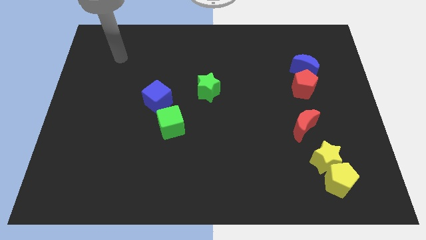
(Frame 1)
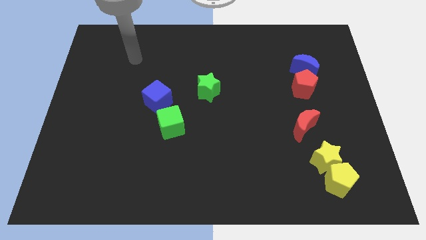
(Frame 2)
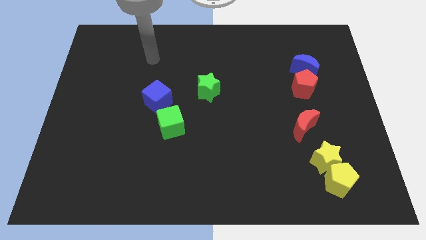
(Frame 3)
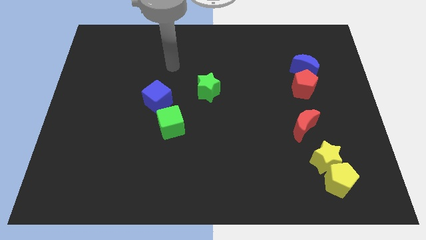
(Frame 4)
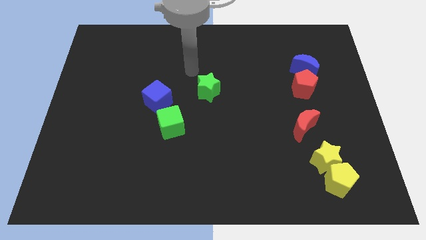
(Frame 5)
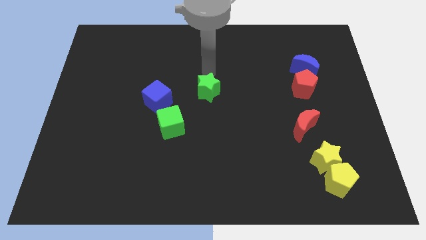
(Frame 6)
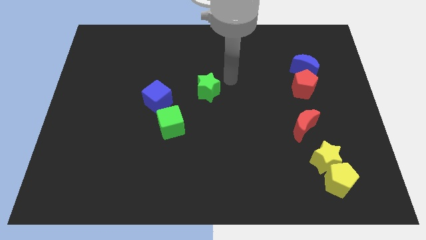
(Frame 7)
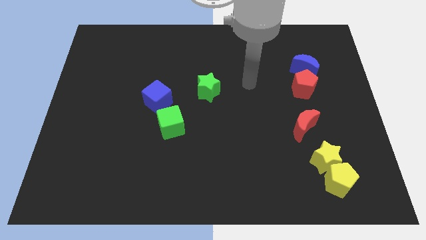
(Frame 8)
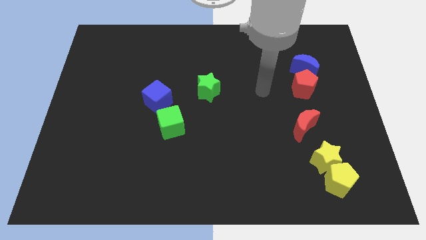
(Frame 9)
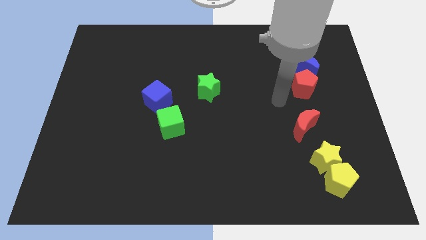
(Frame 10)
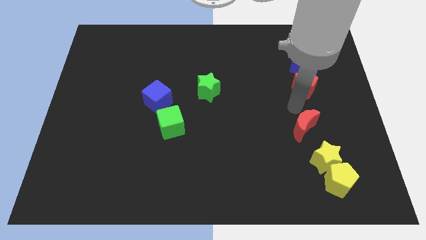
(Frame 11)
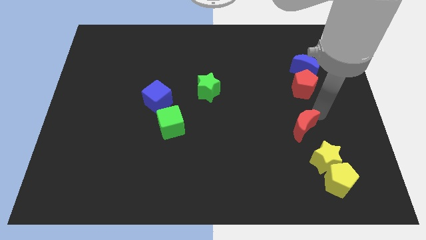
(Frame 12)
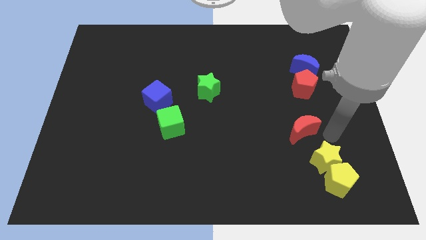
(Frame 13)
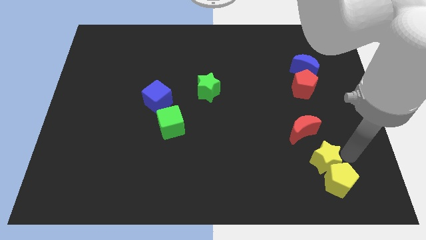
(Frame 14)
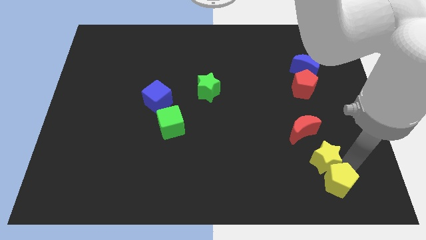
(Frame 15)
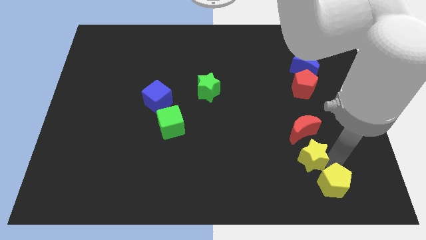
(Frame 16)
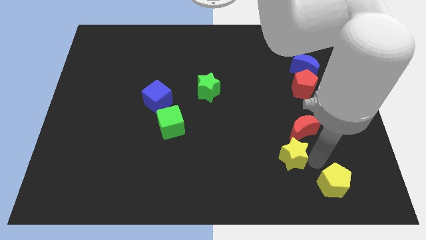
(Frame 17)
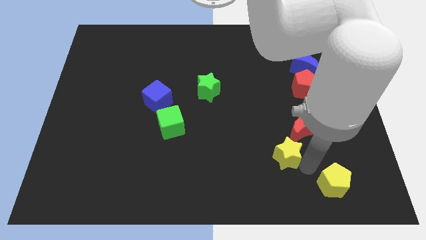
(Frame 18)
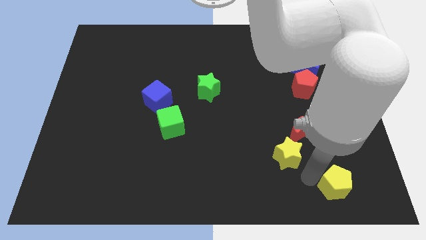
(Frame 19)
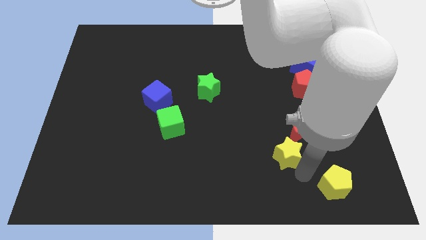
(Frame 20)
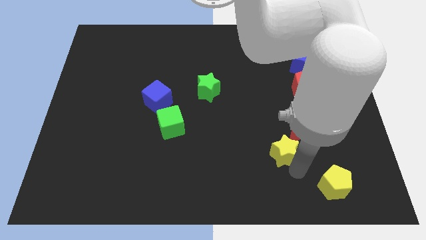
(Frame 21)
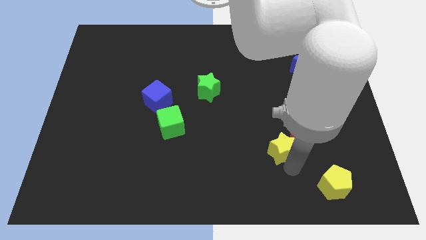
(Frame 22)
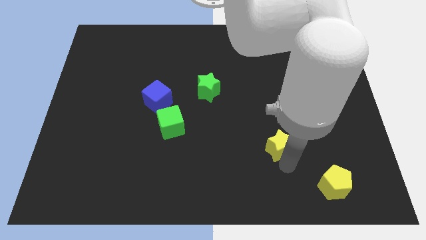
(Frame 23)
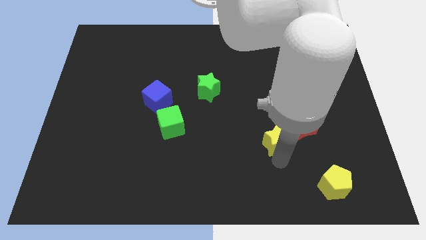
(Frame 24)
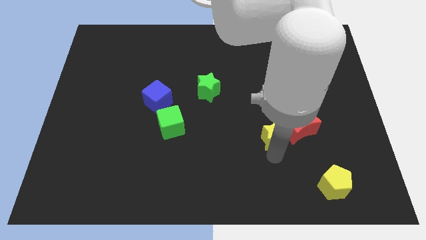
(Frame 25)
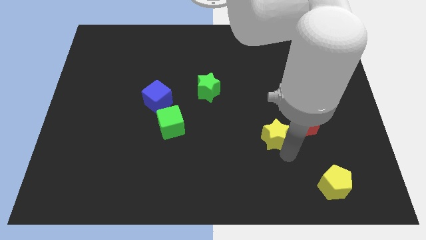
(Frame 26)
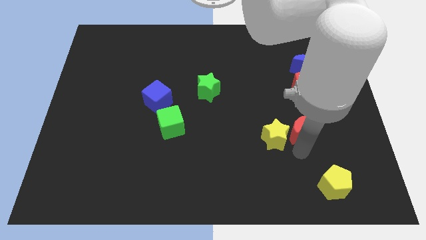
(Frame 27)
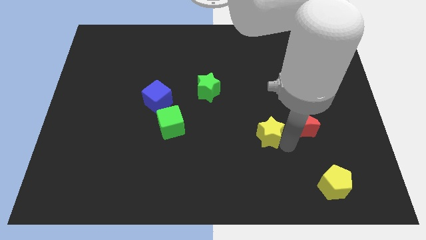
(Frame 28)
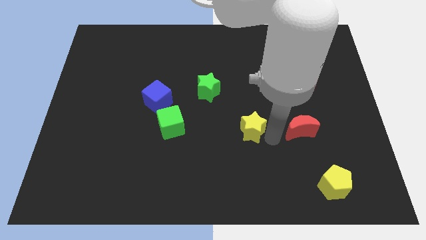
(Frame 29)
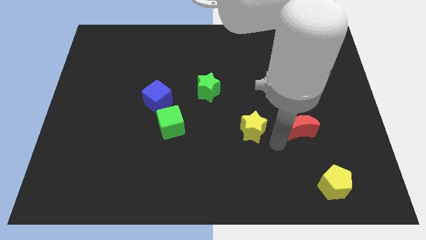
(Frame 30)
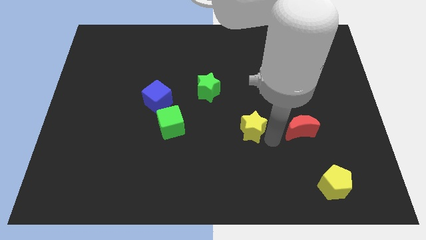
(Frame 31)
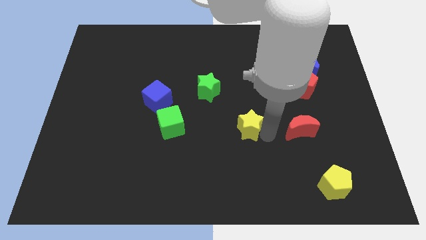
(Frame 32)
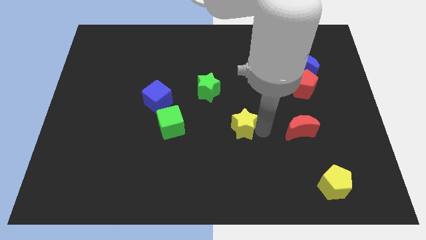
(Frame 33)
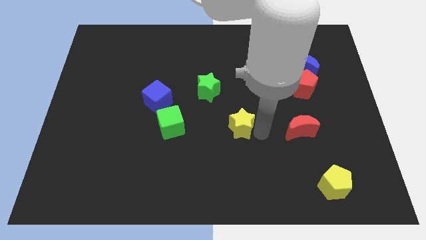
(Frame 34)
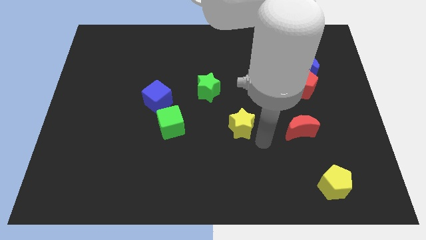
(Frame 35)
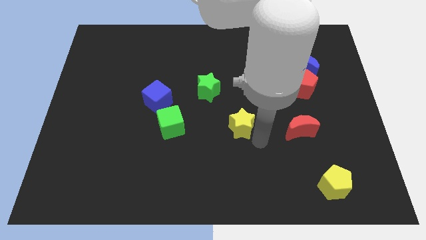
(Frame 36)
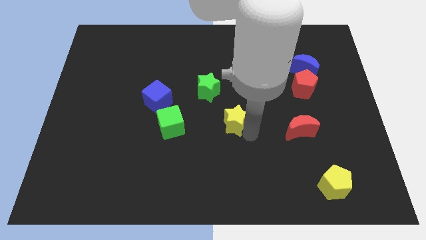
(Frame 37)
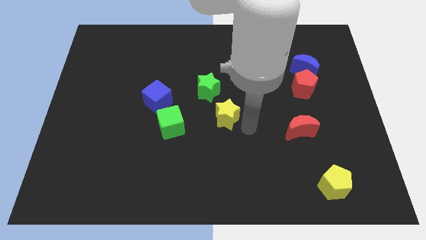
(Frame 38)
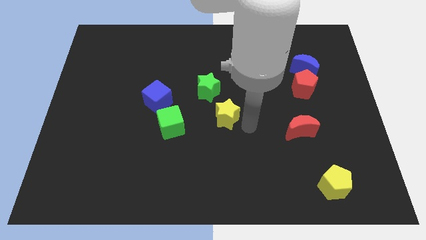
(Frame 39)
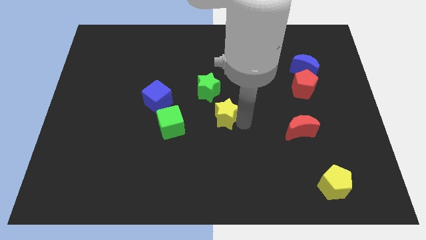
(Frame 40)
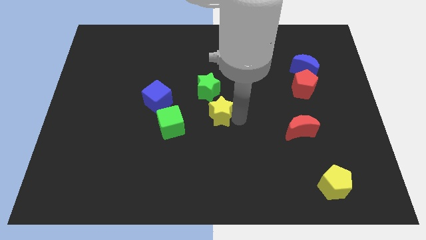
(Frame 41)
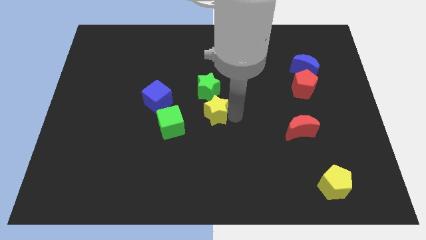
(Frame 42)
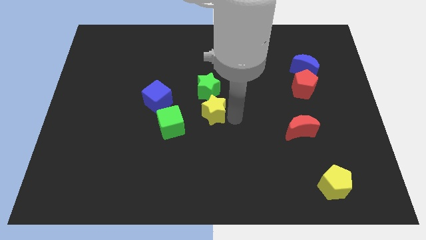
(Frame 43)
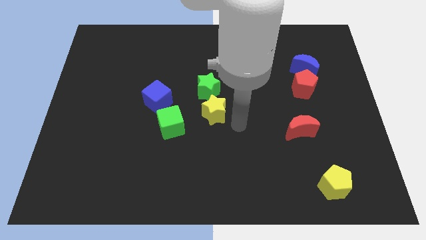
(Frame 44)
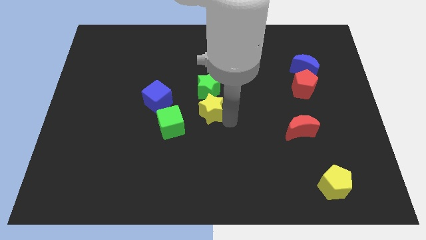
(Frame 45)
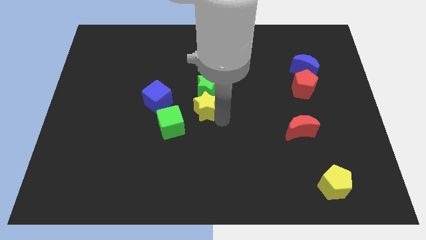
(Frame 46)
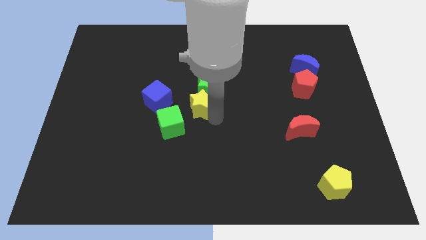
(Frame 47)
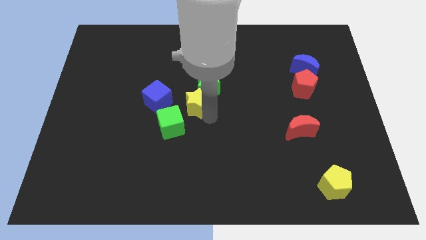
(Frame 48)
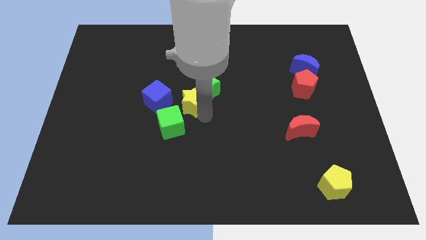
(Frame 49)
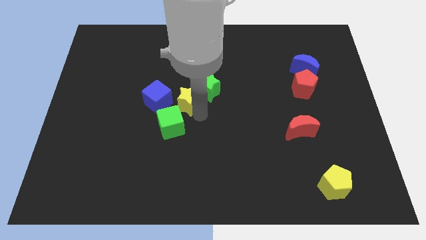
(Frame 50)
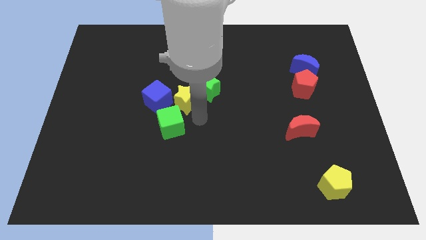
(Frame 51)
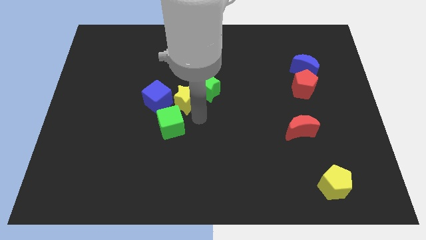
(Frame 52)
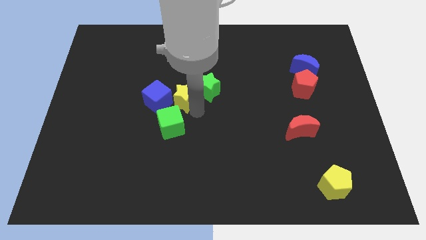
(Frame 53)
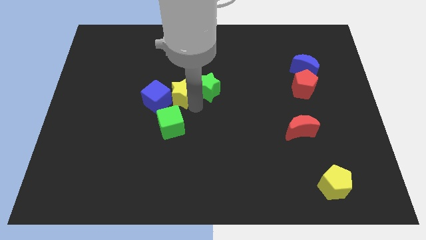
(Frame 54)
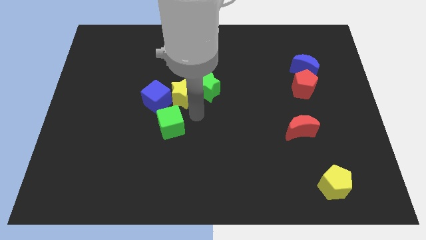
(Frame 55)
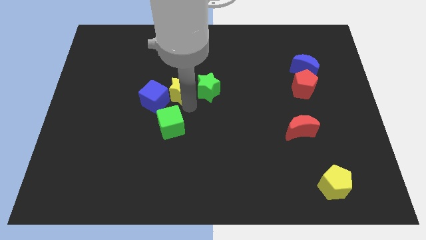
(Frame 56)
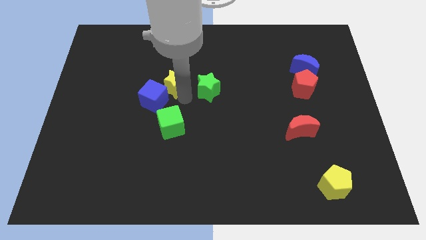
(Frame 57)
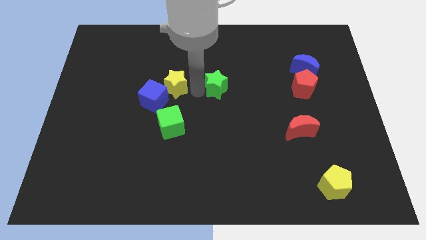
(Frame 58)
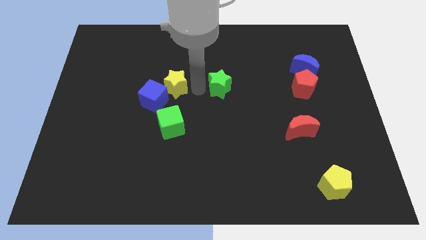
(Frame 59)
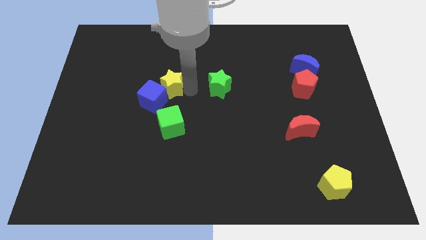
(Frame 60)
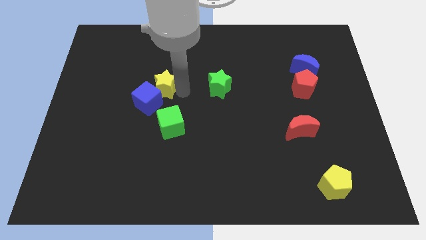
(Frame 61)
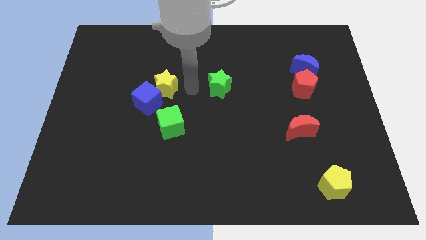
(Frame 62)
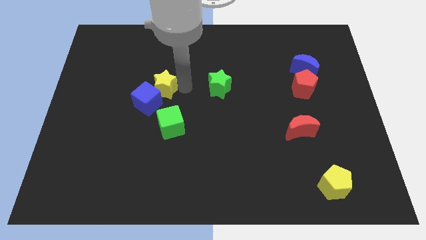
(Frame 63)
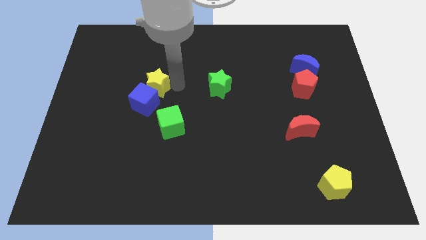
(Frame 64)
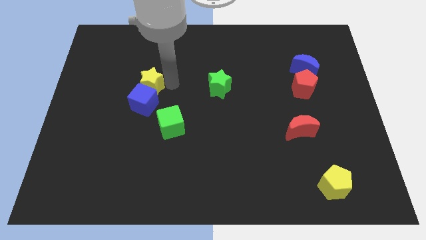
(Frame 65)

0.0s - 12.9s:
slide the yellow star to the top left of the blue cube

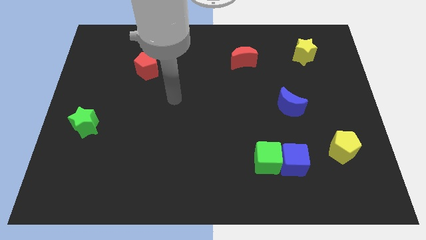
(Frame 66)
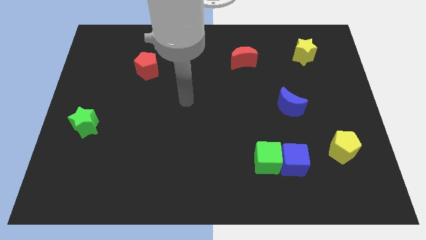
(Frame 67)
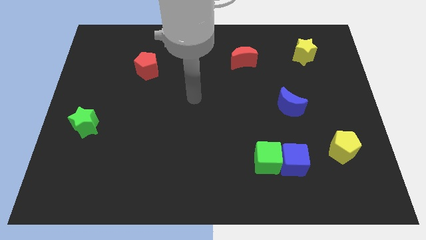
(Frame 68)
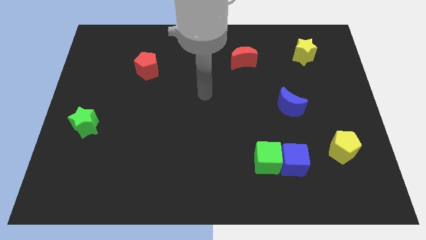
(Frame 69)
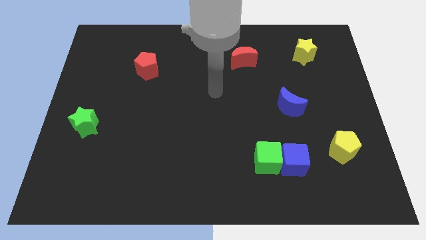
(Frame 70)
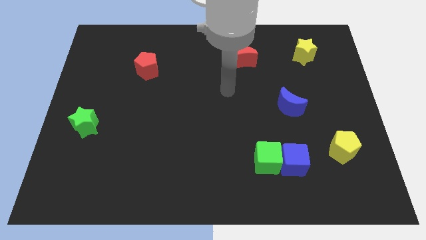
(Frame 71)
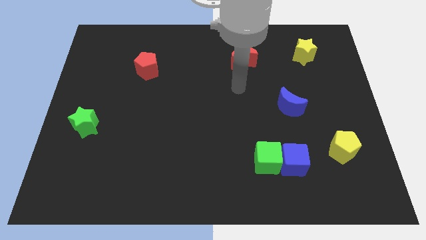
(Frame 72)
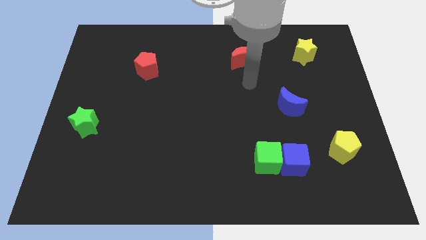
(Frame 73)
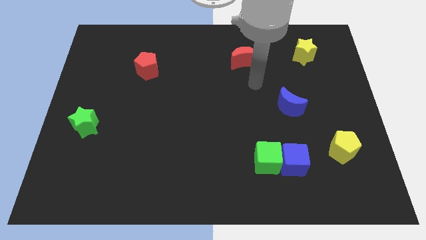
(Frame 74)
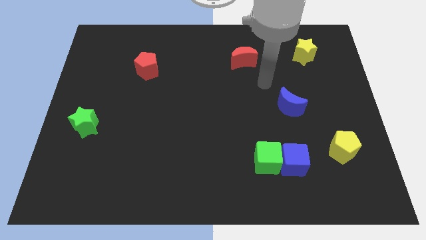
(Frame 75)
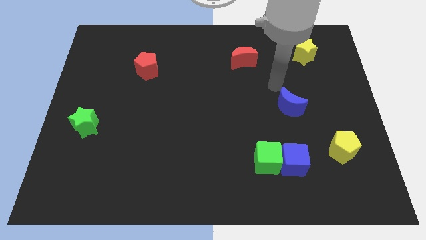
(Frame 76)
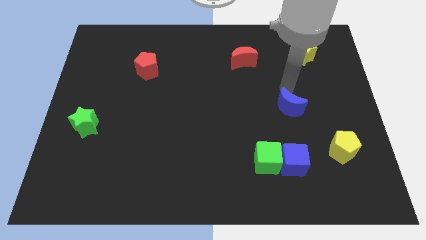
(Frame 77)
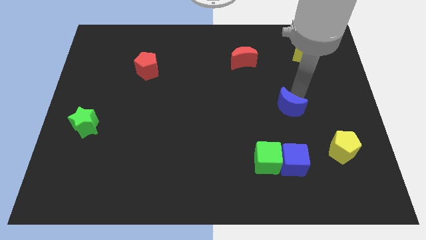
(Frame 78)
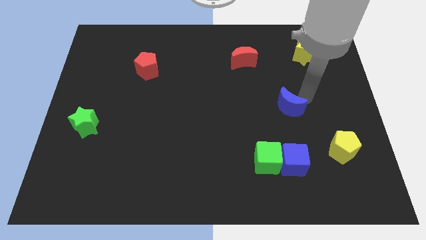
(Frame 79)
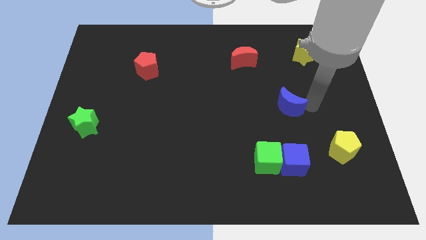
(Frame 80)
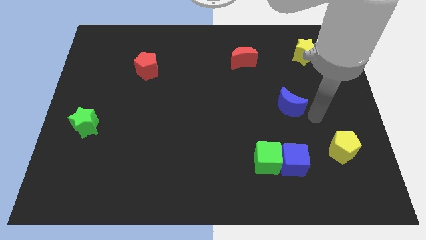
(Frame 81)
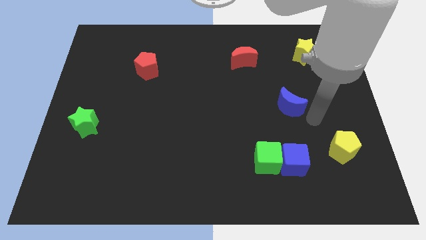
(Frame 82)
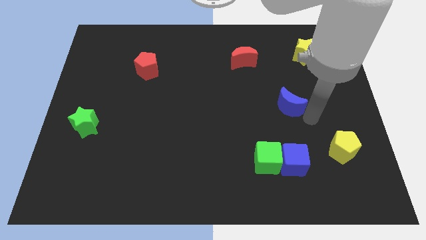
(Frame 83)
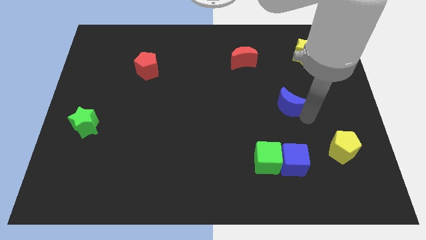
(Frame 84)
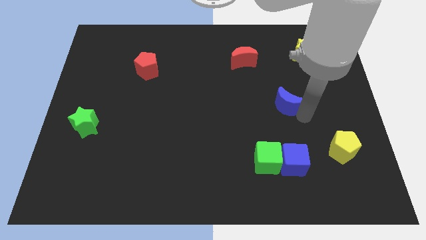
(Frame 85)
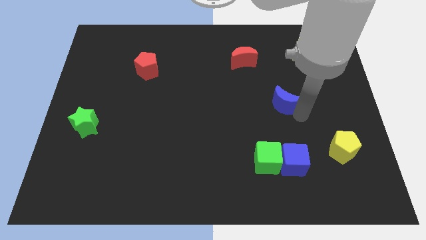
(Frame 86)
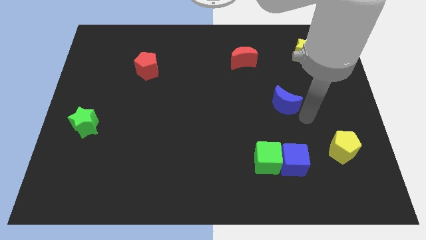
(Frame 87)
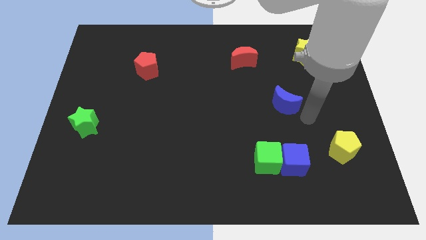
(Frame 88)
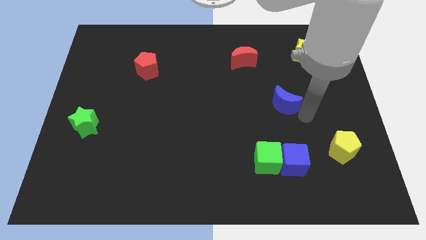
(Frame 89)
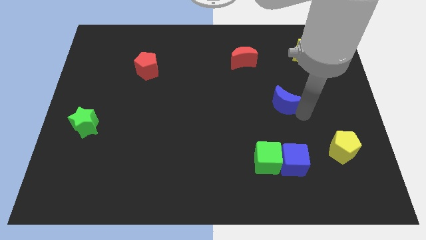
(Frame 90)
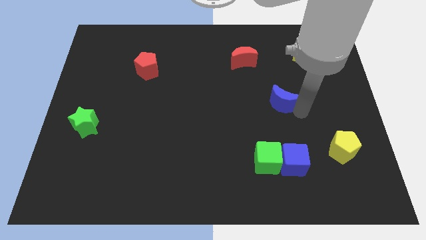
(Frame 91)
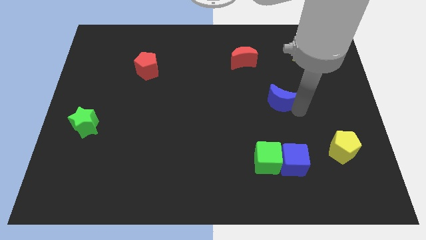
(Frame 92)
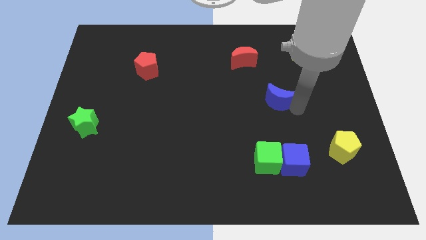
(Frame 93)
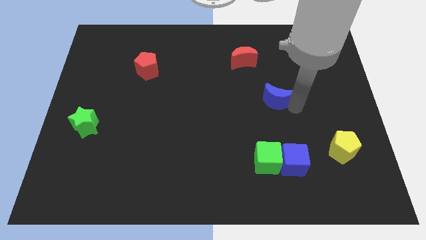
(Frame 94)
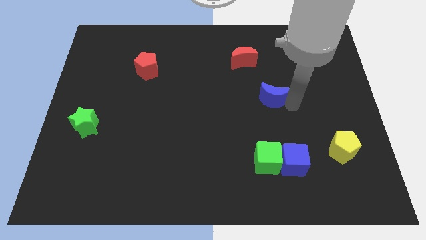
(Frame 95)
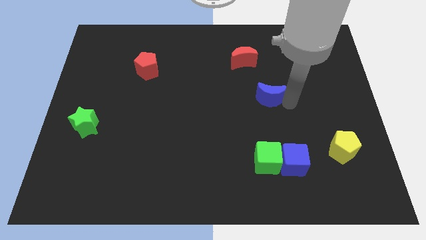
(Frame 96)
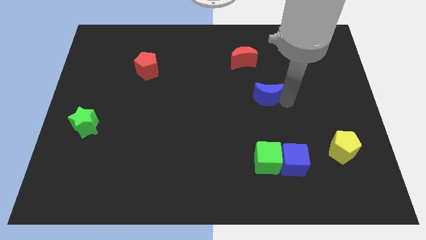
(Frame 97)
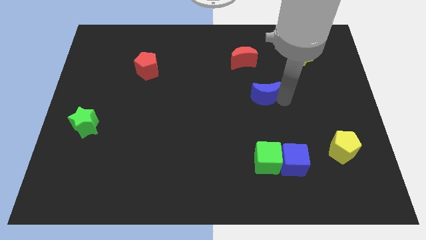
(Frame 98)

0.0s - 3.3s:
move the blue moon to the bottom of the red moon
